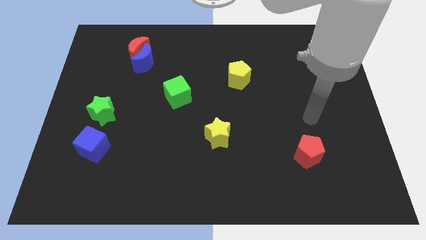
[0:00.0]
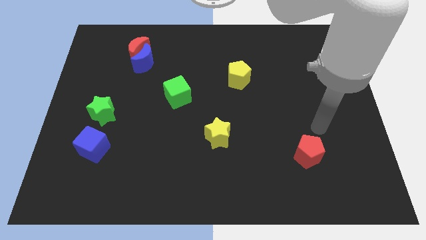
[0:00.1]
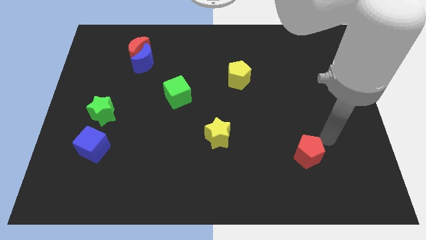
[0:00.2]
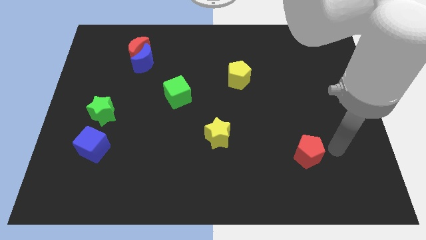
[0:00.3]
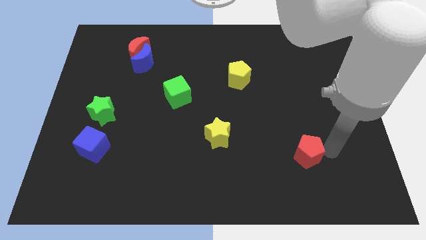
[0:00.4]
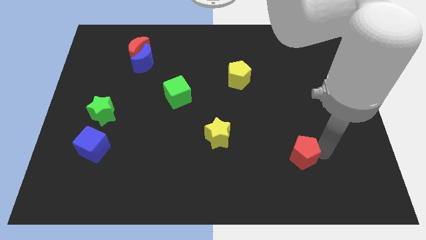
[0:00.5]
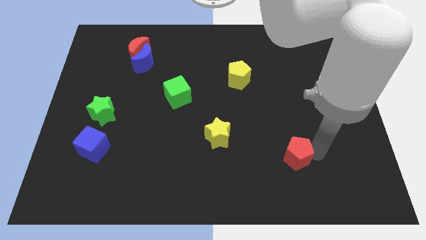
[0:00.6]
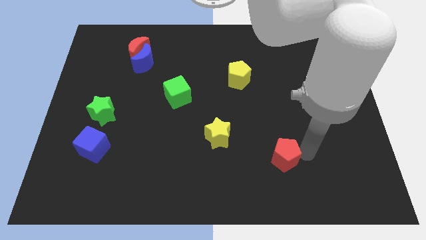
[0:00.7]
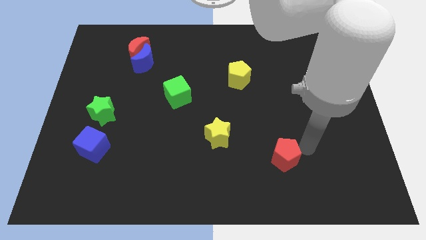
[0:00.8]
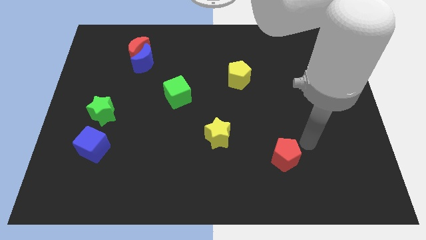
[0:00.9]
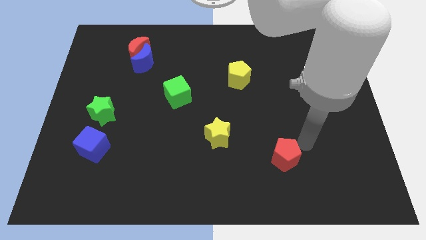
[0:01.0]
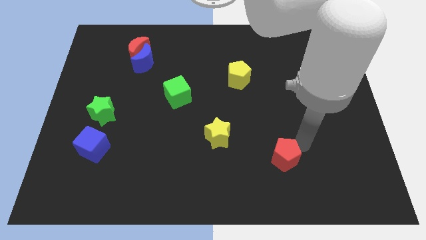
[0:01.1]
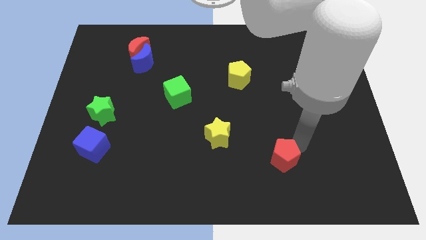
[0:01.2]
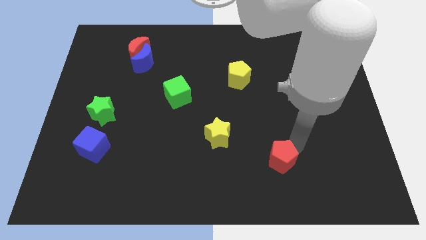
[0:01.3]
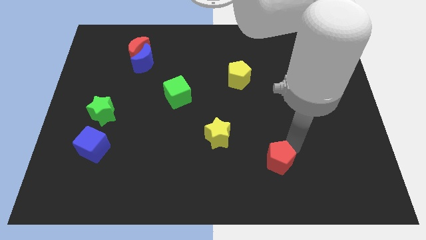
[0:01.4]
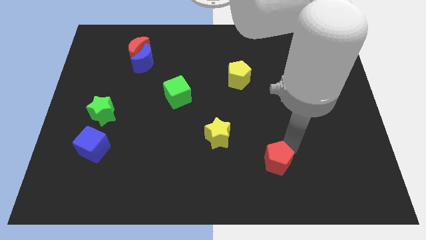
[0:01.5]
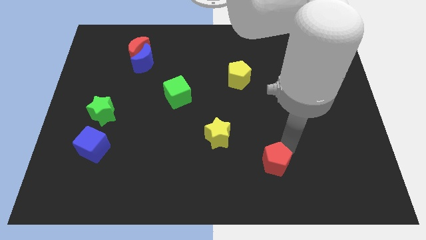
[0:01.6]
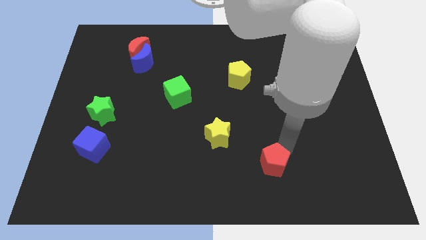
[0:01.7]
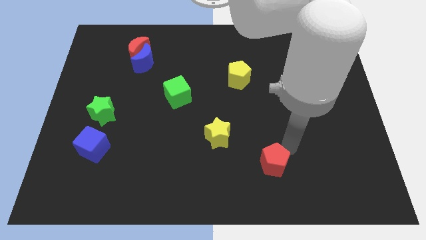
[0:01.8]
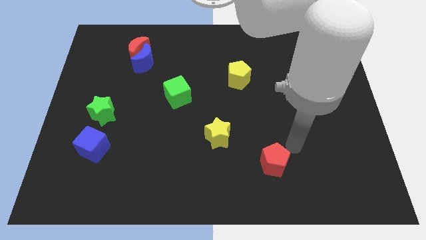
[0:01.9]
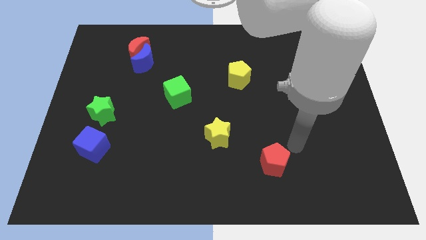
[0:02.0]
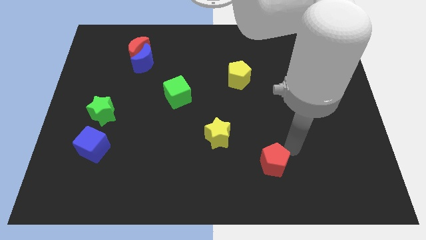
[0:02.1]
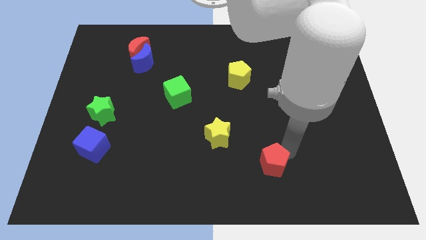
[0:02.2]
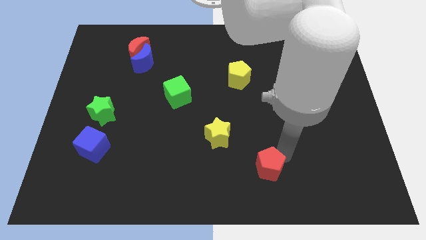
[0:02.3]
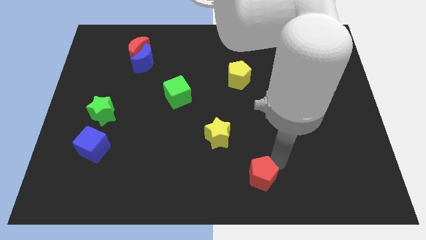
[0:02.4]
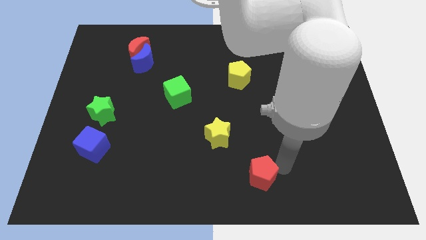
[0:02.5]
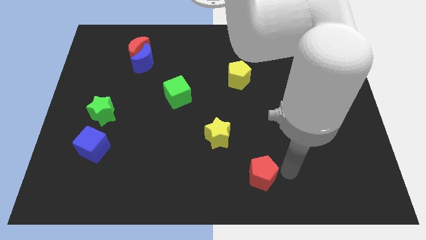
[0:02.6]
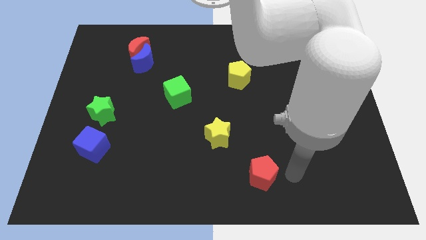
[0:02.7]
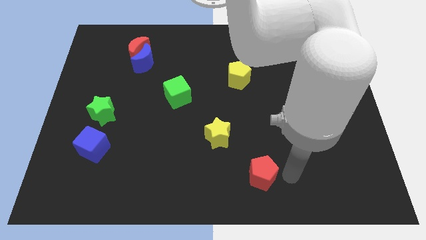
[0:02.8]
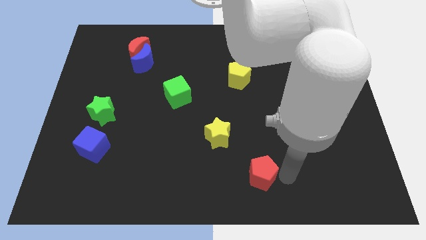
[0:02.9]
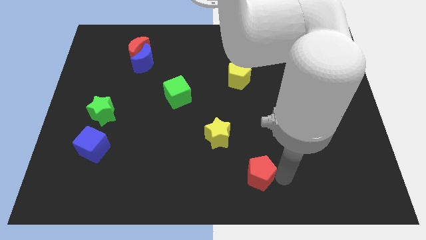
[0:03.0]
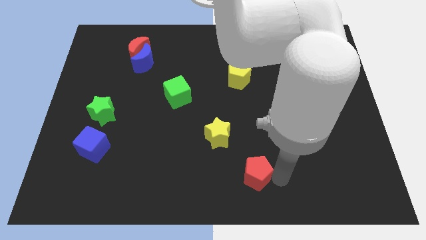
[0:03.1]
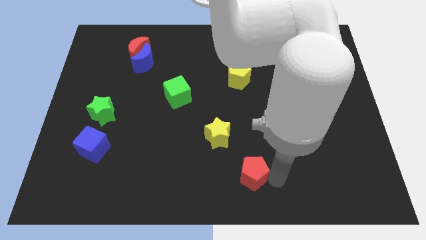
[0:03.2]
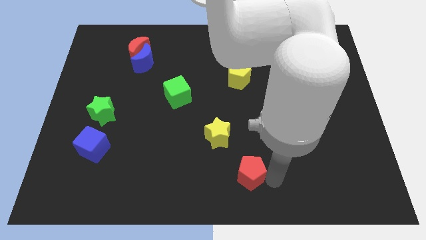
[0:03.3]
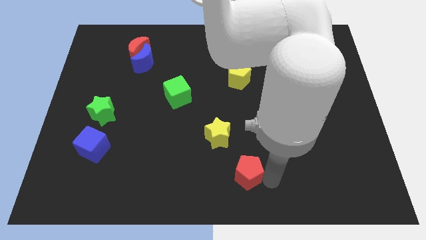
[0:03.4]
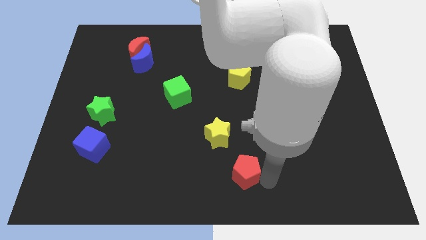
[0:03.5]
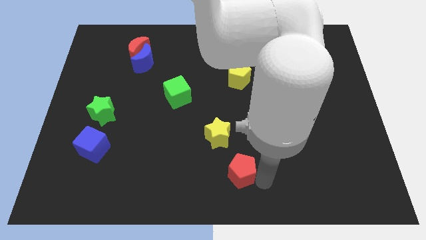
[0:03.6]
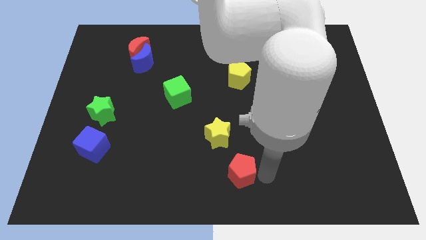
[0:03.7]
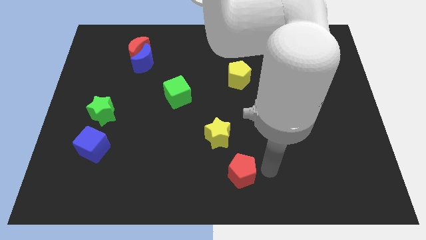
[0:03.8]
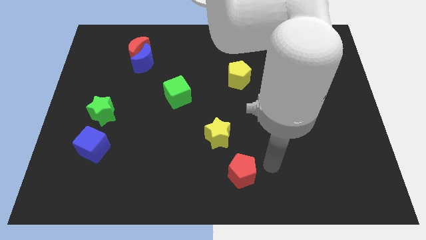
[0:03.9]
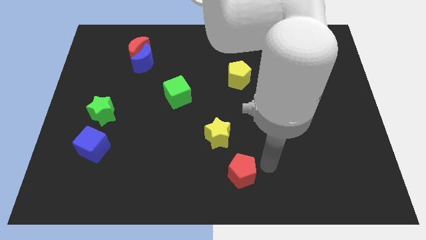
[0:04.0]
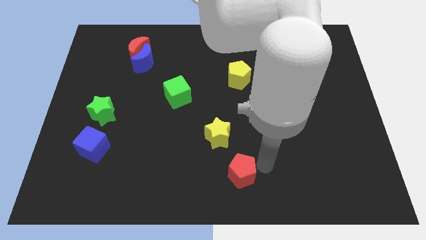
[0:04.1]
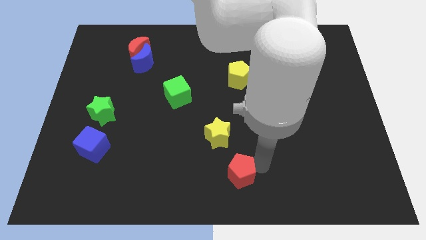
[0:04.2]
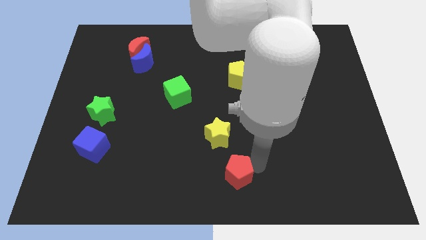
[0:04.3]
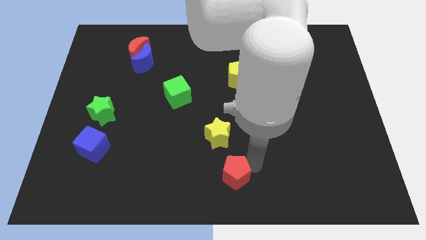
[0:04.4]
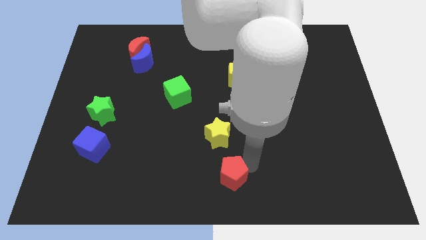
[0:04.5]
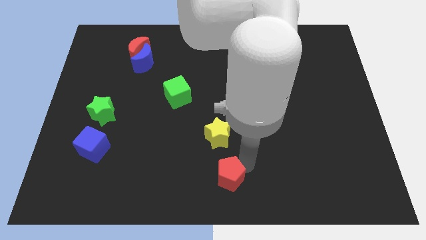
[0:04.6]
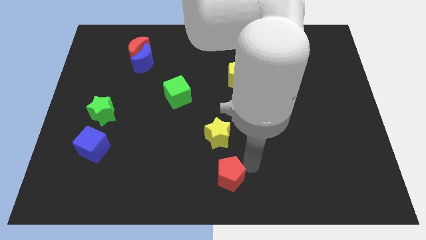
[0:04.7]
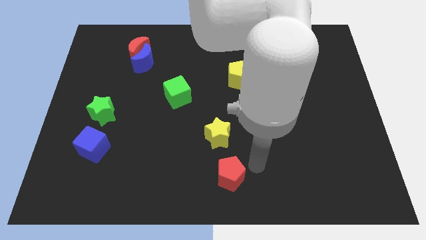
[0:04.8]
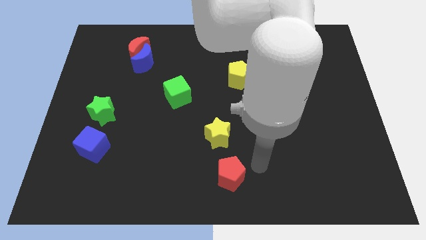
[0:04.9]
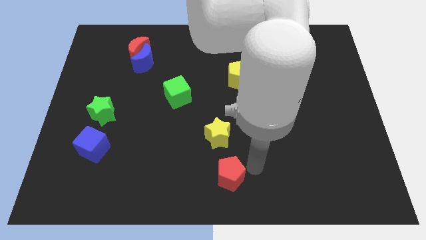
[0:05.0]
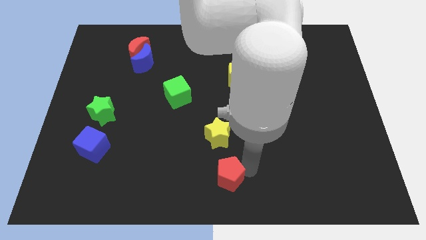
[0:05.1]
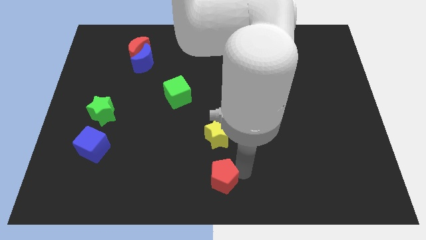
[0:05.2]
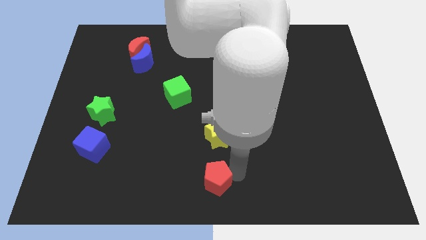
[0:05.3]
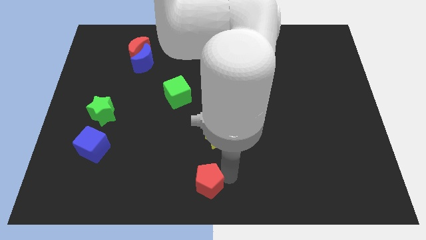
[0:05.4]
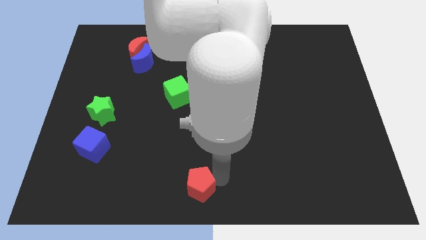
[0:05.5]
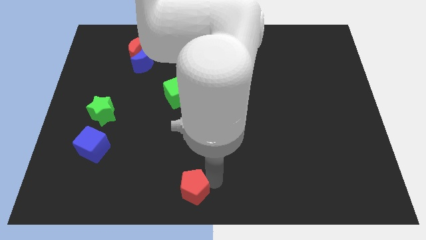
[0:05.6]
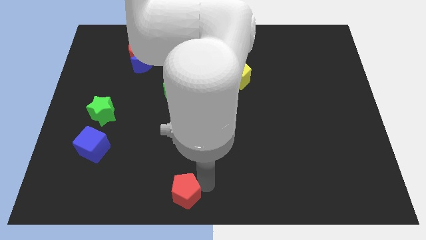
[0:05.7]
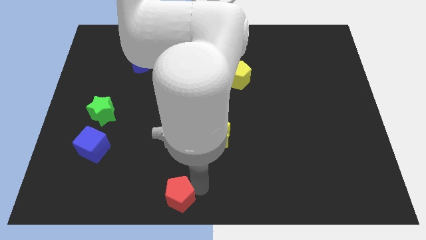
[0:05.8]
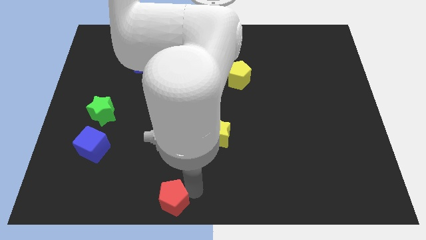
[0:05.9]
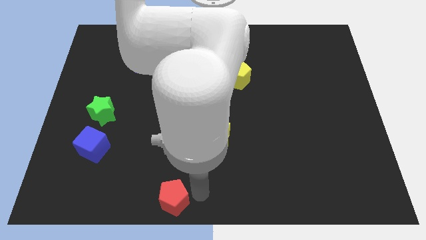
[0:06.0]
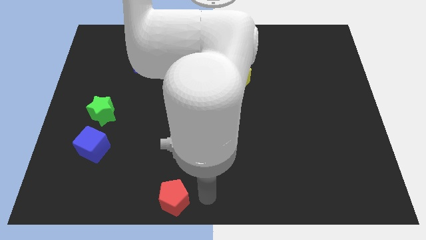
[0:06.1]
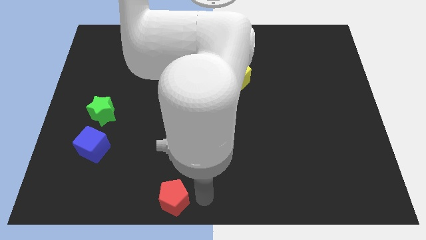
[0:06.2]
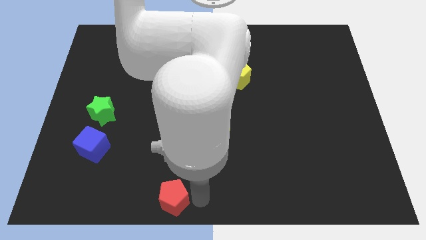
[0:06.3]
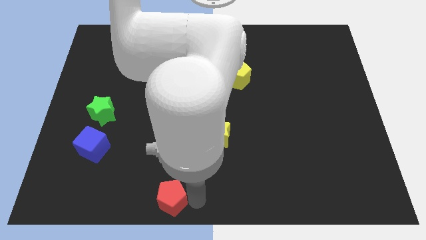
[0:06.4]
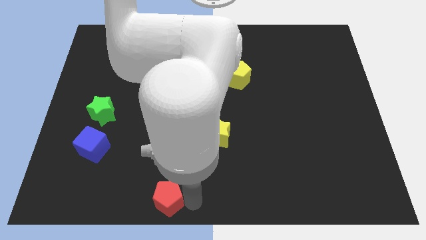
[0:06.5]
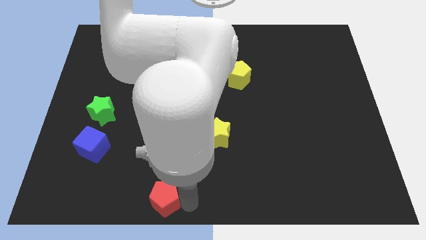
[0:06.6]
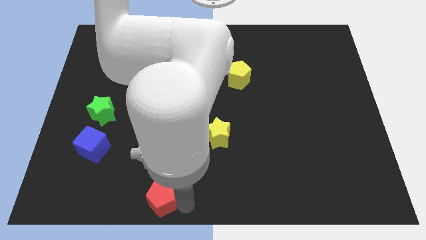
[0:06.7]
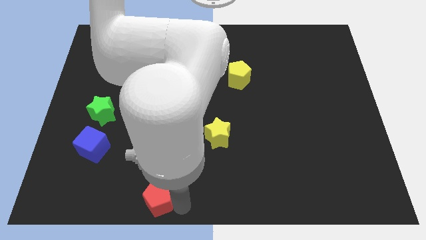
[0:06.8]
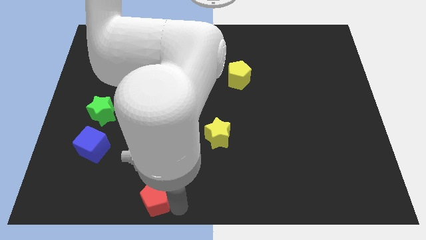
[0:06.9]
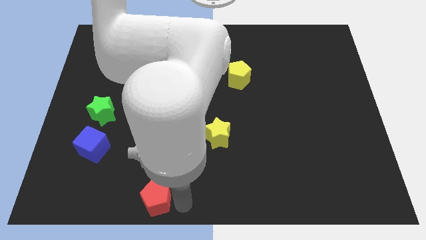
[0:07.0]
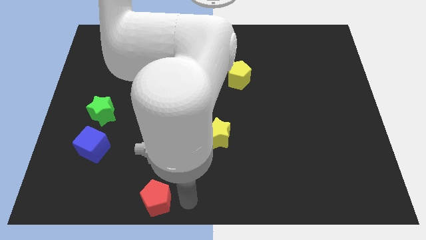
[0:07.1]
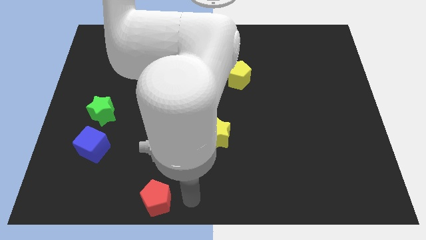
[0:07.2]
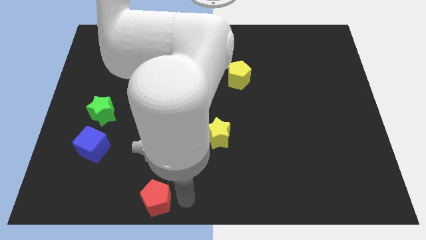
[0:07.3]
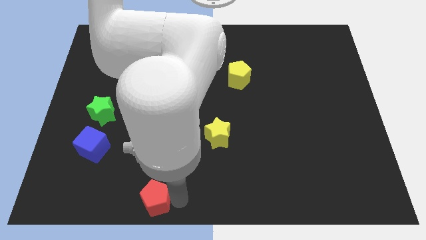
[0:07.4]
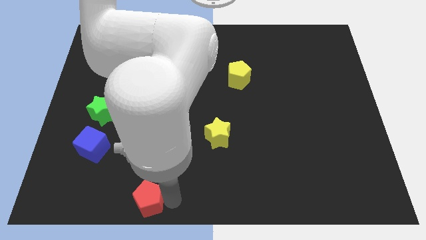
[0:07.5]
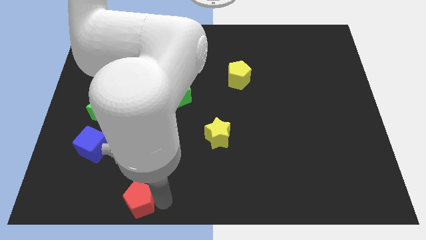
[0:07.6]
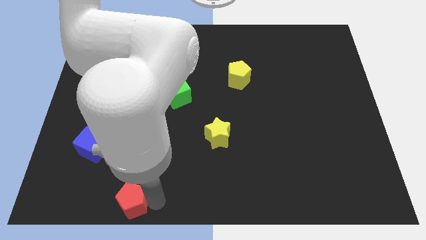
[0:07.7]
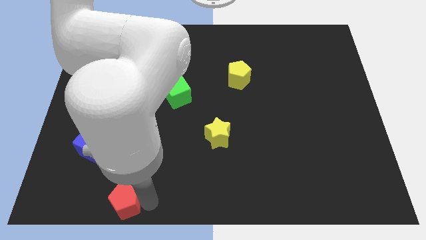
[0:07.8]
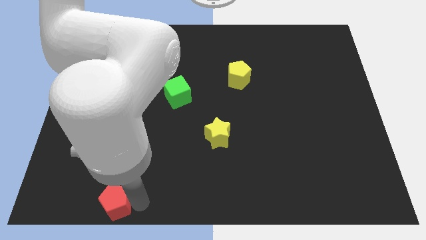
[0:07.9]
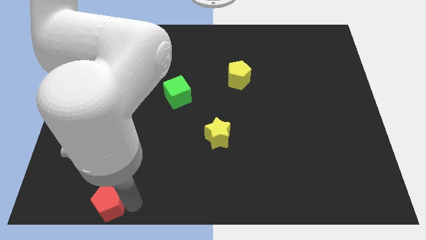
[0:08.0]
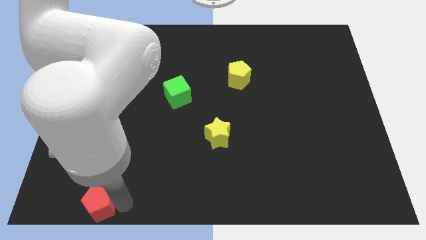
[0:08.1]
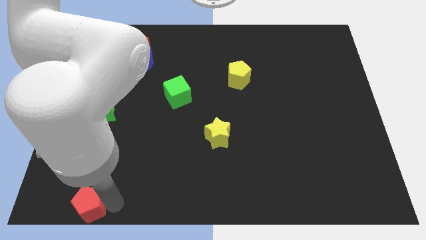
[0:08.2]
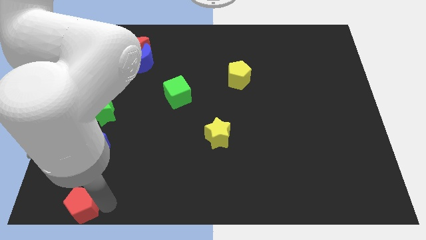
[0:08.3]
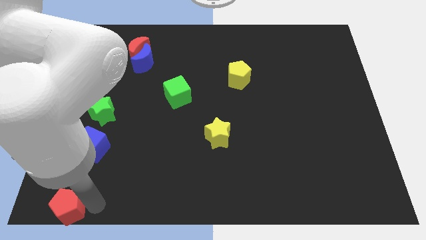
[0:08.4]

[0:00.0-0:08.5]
slide the red pentagon to the bottom left
